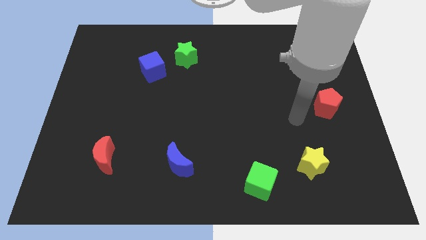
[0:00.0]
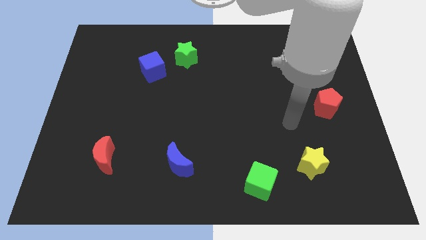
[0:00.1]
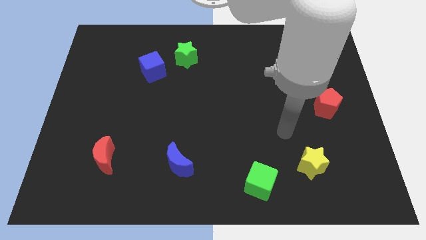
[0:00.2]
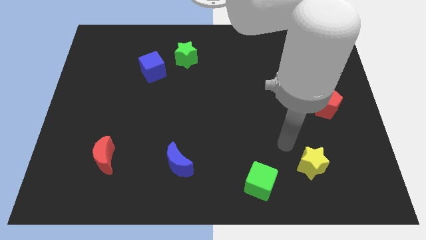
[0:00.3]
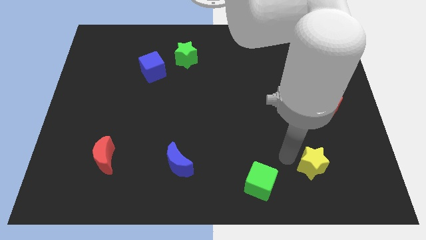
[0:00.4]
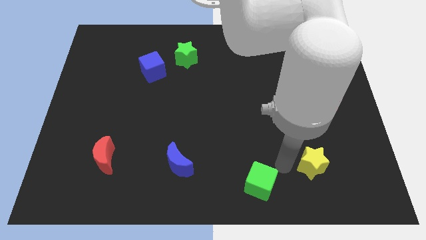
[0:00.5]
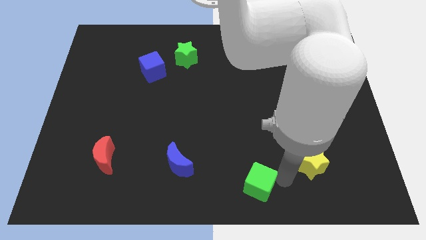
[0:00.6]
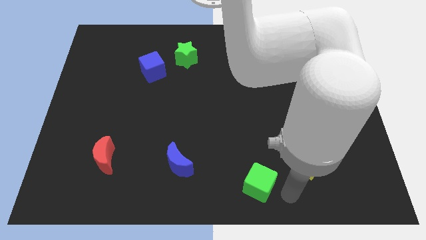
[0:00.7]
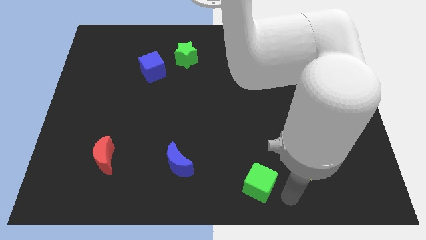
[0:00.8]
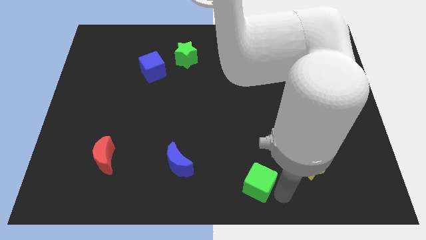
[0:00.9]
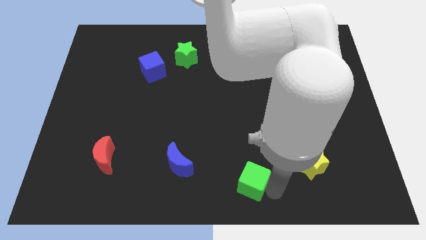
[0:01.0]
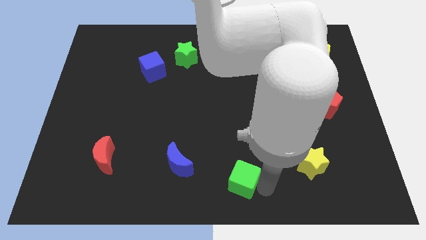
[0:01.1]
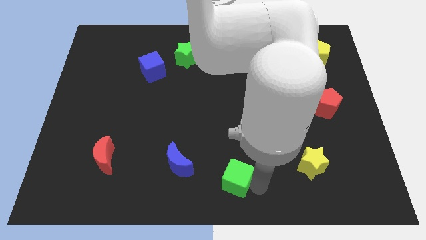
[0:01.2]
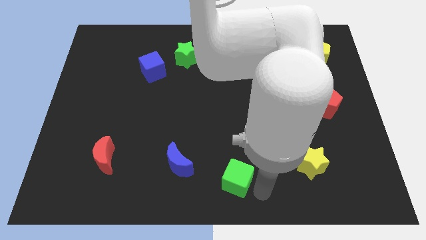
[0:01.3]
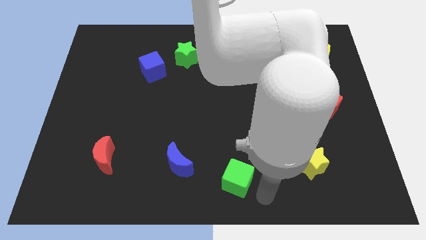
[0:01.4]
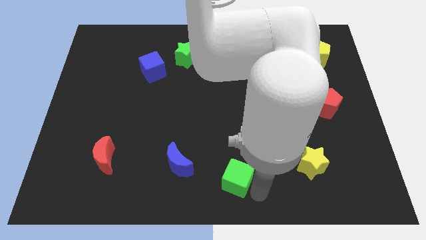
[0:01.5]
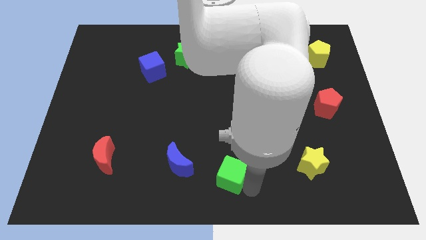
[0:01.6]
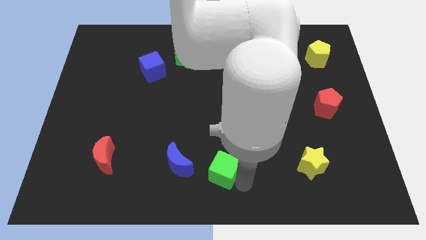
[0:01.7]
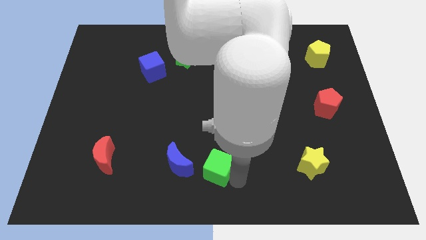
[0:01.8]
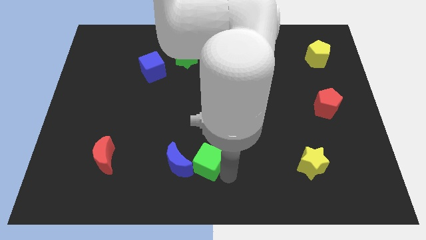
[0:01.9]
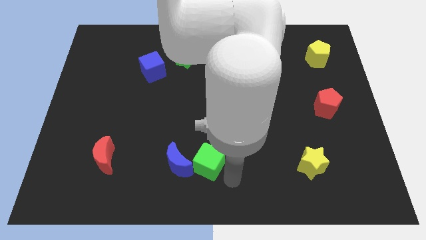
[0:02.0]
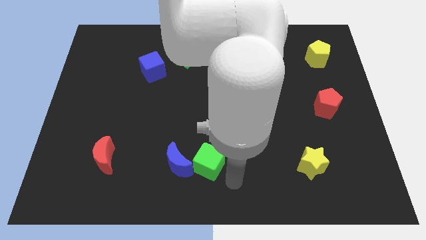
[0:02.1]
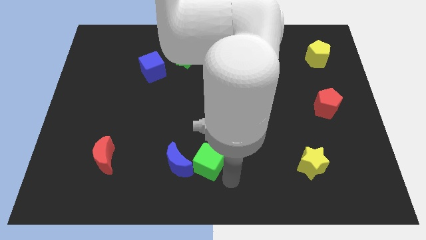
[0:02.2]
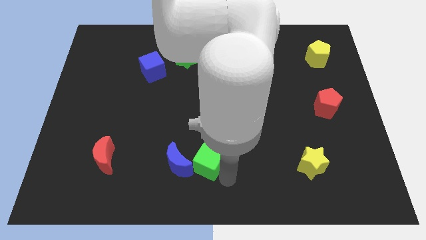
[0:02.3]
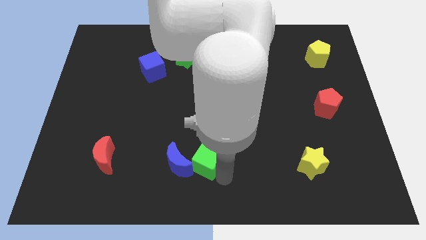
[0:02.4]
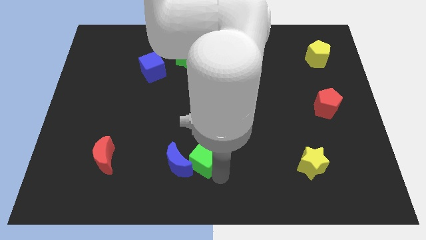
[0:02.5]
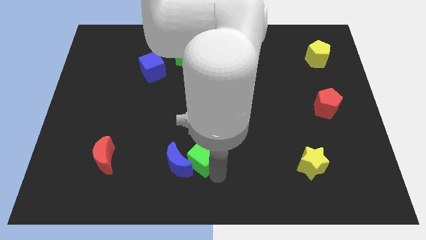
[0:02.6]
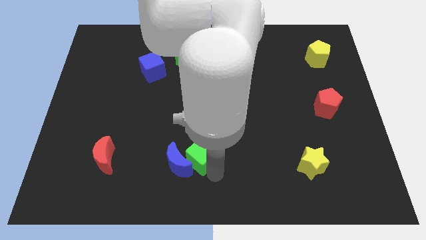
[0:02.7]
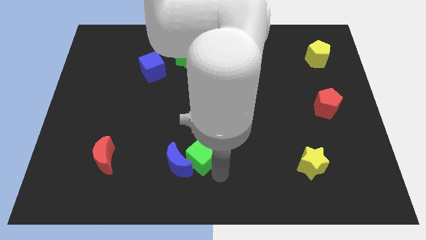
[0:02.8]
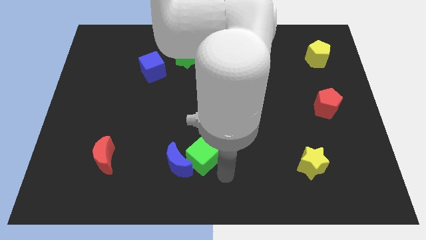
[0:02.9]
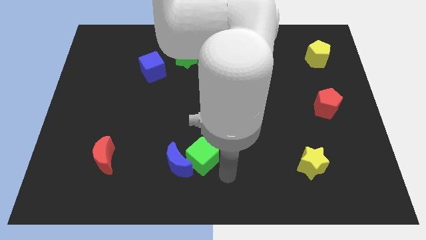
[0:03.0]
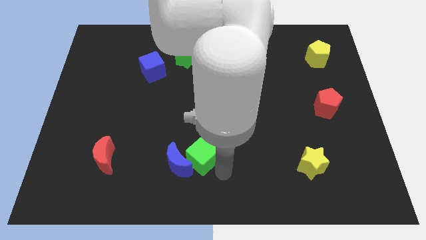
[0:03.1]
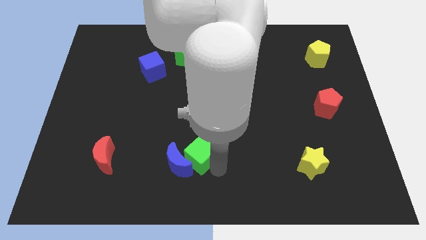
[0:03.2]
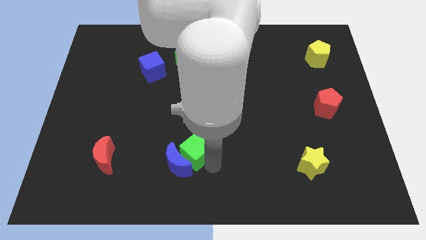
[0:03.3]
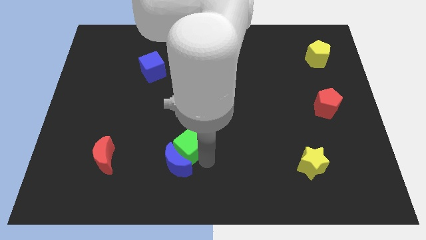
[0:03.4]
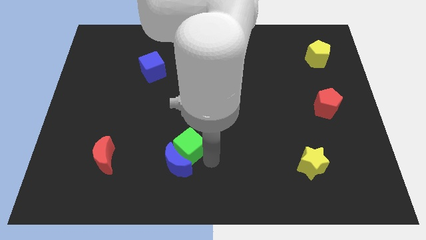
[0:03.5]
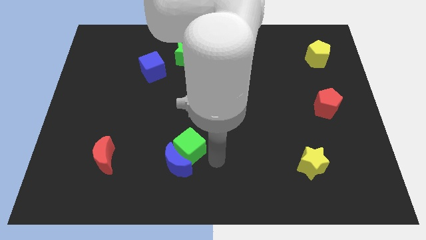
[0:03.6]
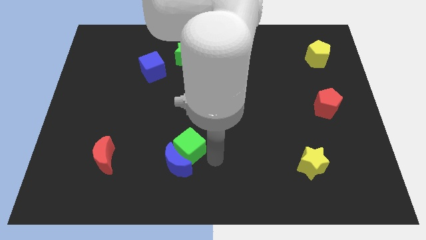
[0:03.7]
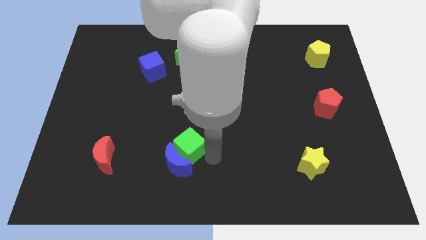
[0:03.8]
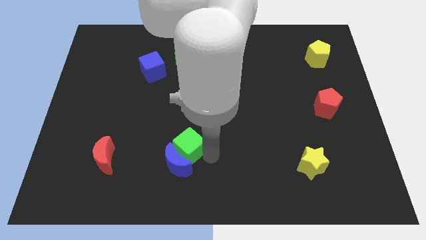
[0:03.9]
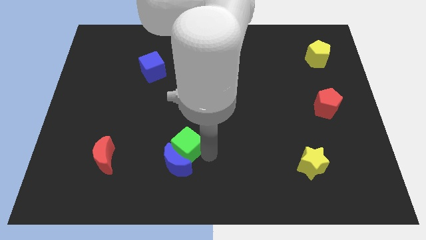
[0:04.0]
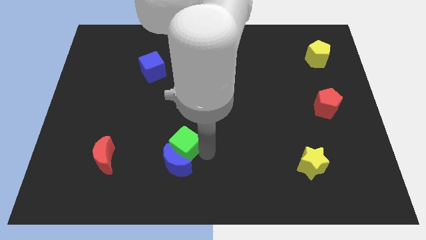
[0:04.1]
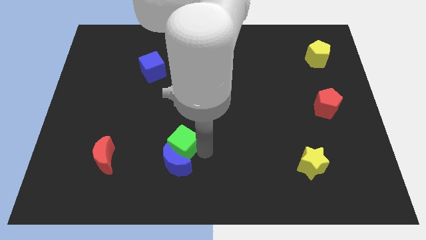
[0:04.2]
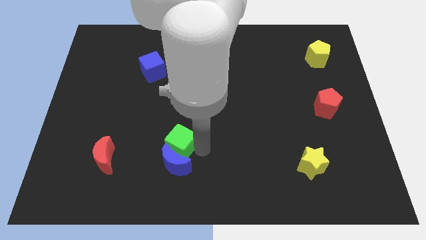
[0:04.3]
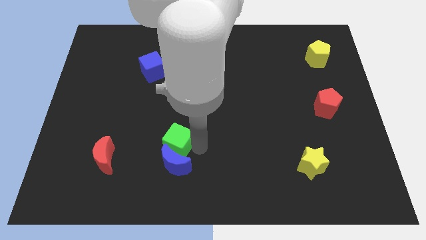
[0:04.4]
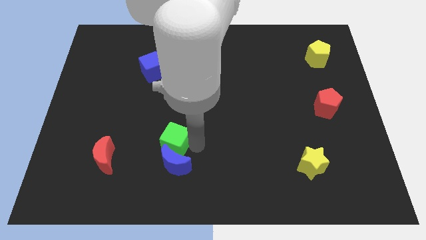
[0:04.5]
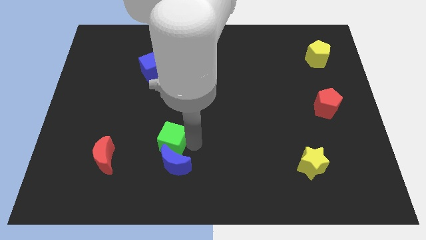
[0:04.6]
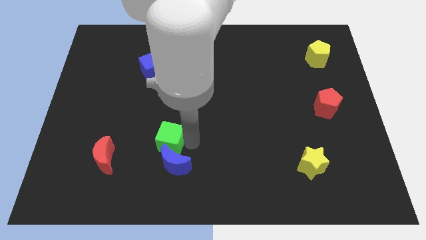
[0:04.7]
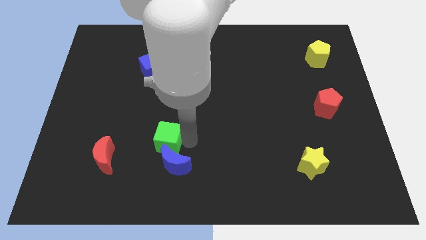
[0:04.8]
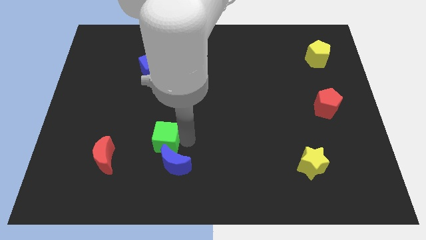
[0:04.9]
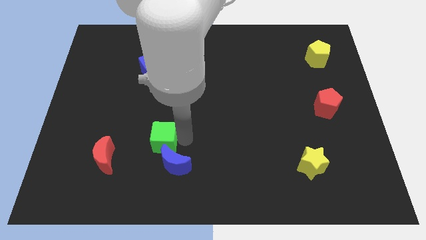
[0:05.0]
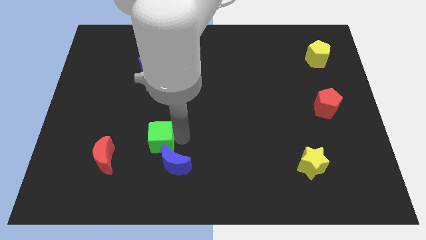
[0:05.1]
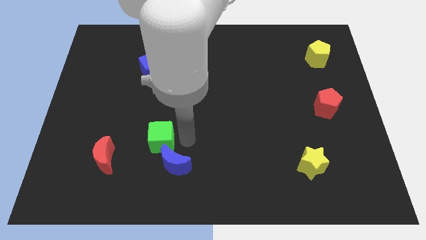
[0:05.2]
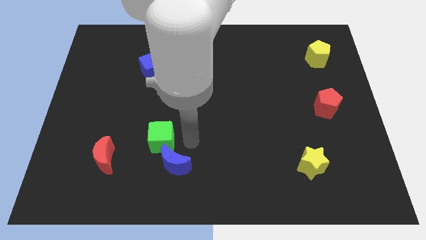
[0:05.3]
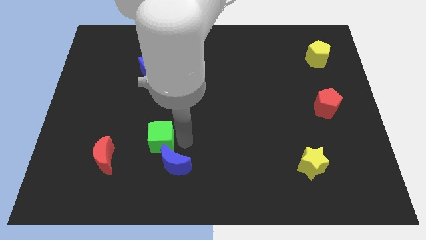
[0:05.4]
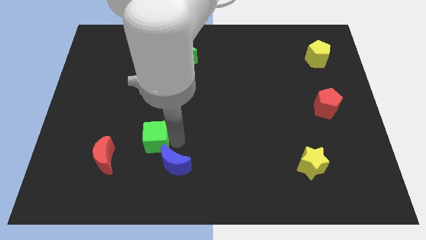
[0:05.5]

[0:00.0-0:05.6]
put the green cube diagonally up and to the right of the red moon

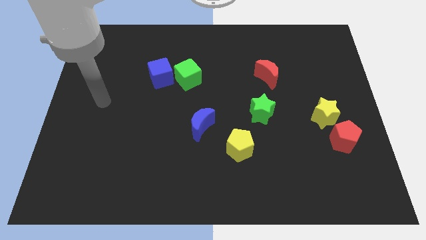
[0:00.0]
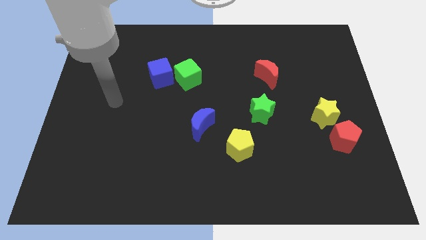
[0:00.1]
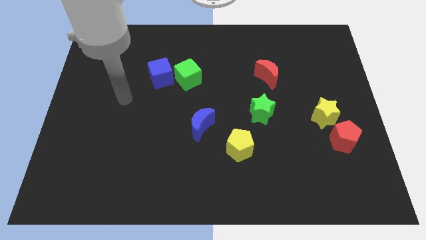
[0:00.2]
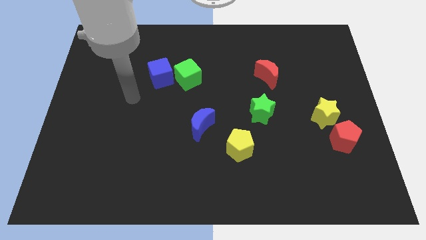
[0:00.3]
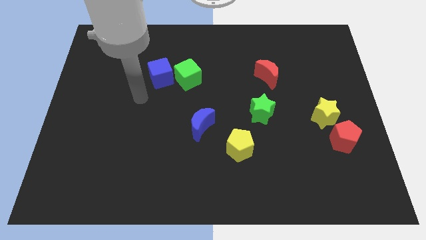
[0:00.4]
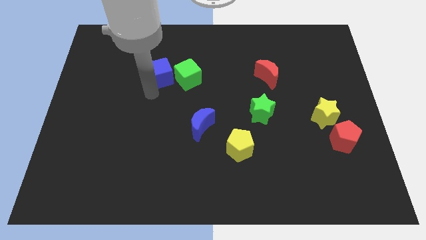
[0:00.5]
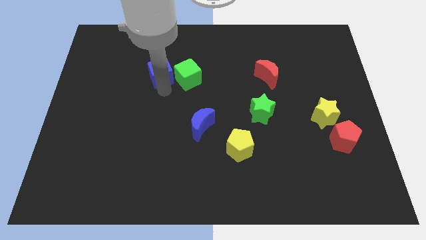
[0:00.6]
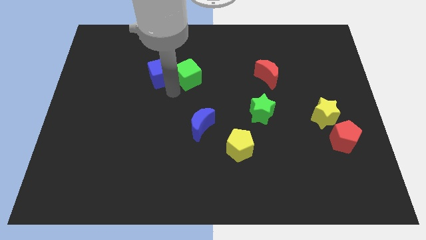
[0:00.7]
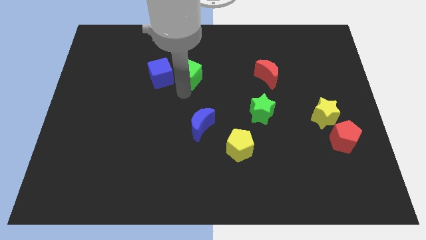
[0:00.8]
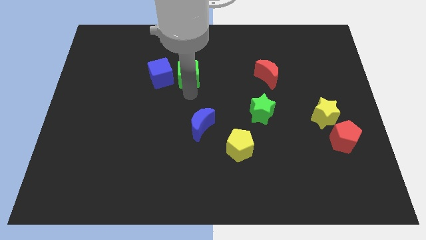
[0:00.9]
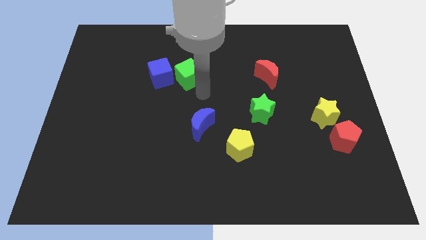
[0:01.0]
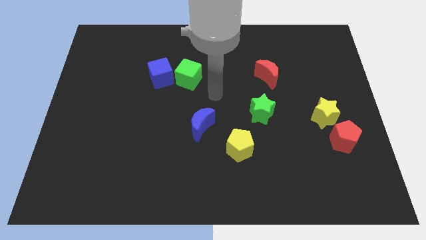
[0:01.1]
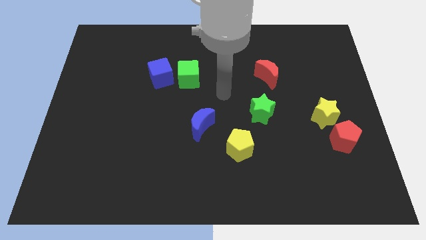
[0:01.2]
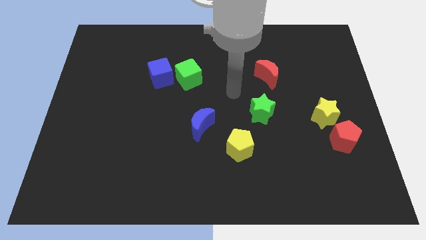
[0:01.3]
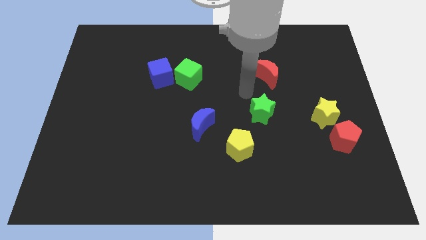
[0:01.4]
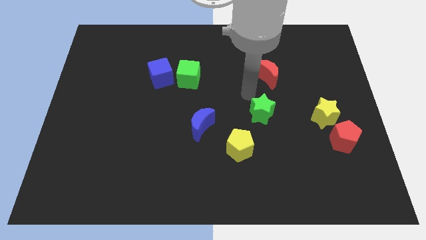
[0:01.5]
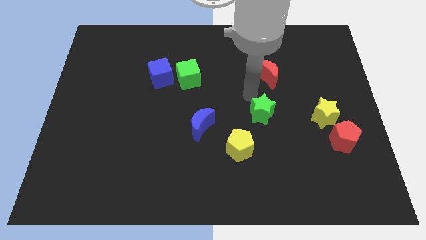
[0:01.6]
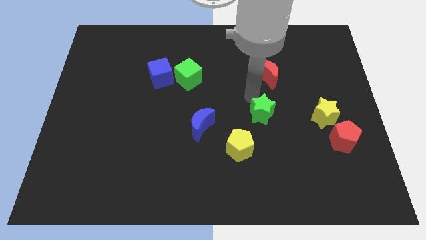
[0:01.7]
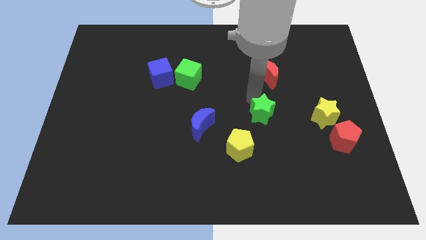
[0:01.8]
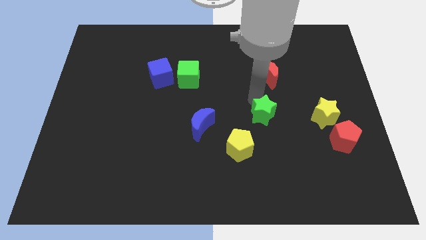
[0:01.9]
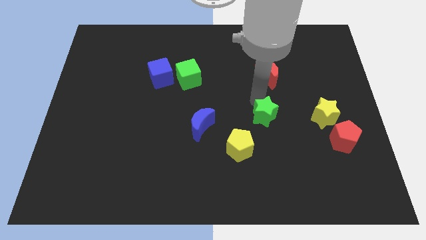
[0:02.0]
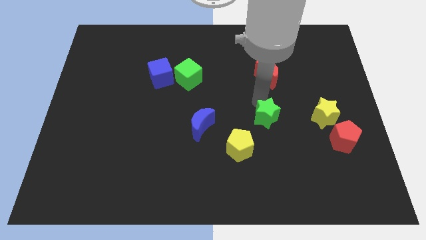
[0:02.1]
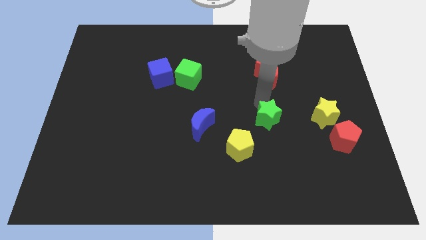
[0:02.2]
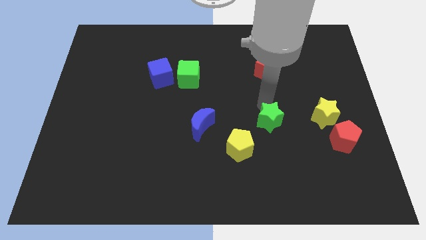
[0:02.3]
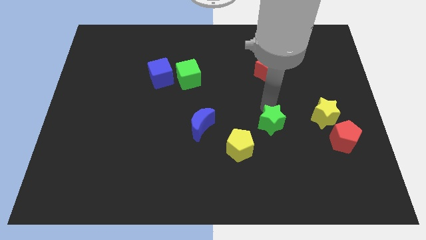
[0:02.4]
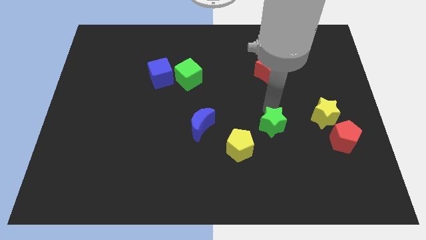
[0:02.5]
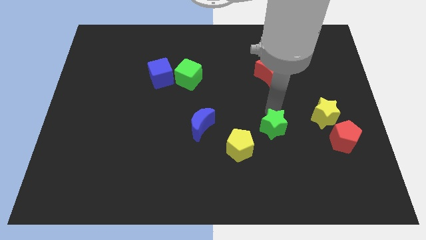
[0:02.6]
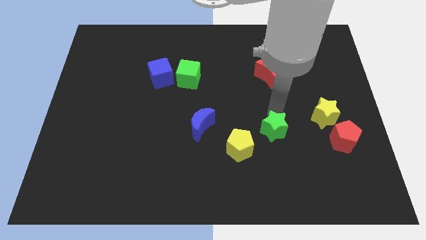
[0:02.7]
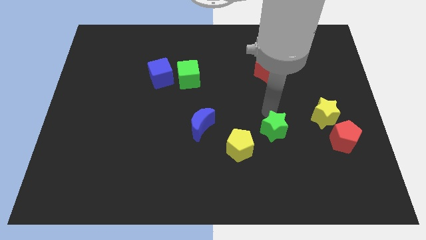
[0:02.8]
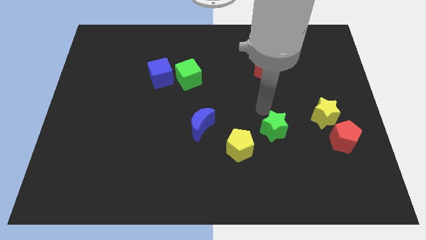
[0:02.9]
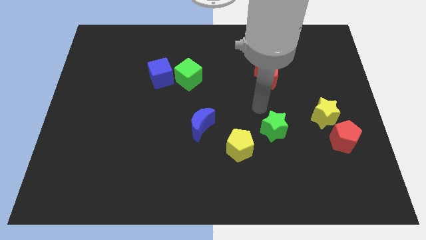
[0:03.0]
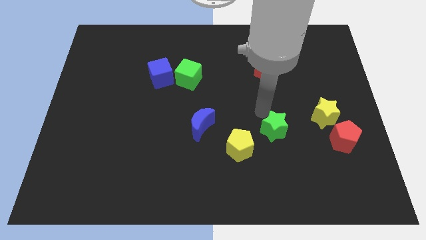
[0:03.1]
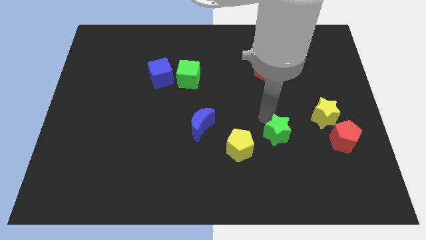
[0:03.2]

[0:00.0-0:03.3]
push the green star just right of the yellow pentagon
